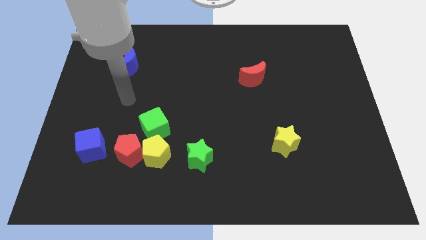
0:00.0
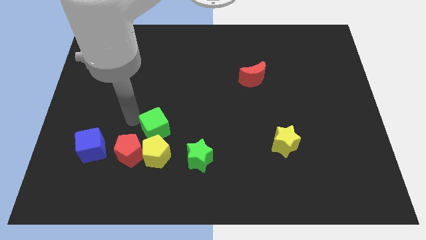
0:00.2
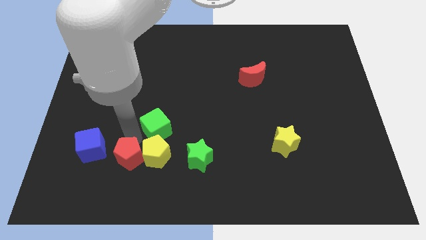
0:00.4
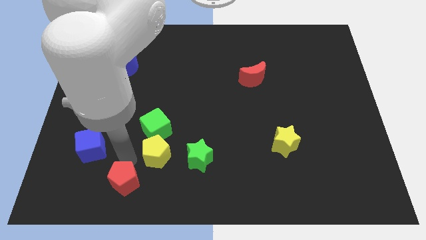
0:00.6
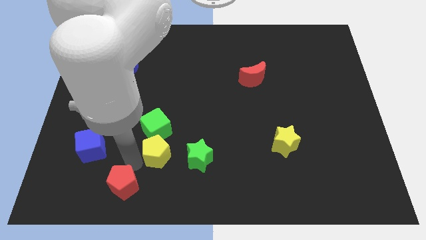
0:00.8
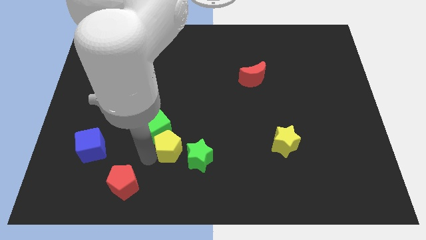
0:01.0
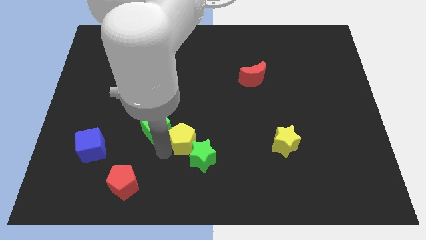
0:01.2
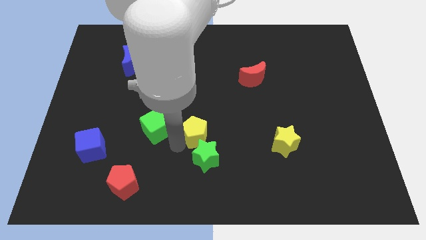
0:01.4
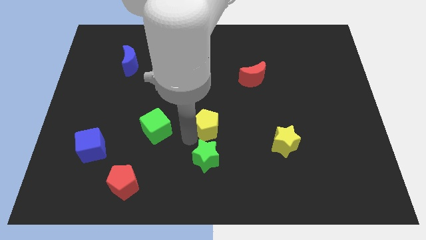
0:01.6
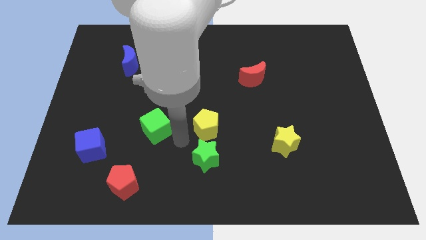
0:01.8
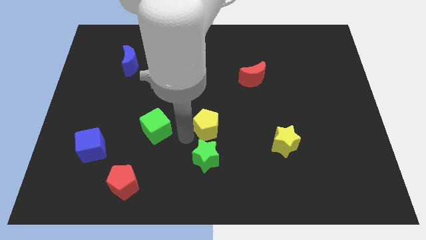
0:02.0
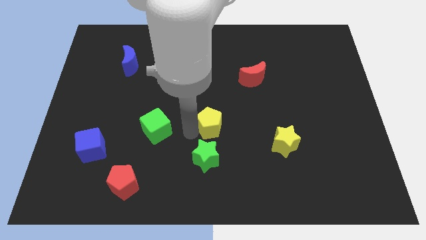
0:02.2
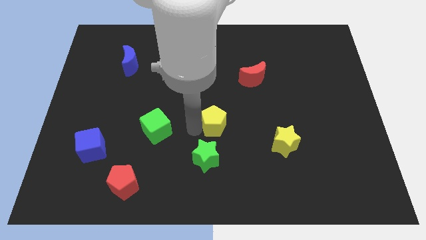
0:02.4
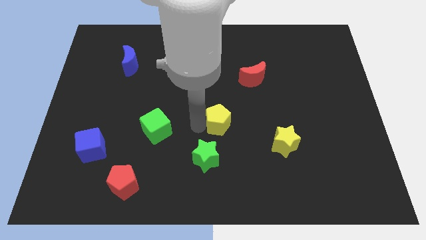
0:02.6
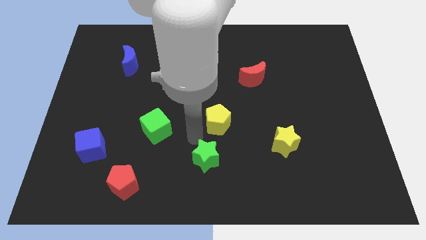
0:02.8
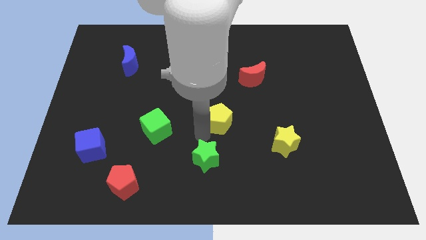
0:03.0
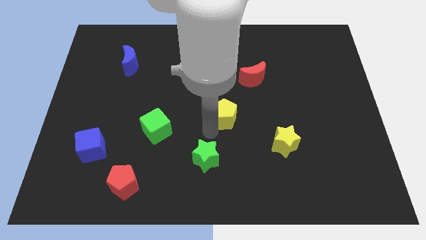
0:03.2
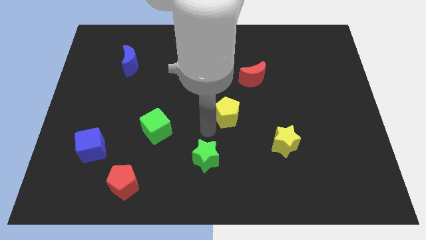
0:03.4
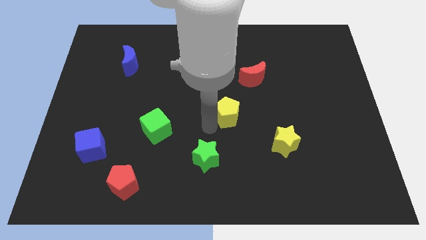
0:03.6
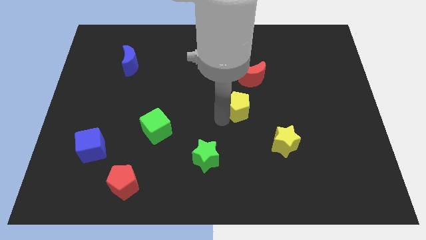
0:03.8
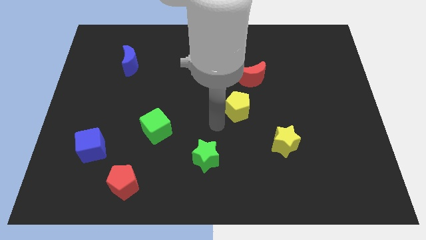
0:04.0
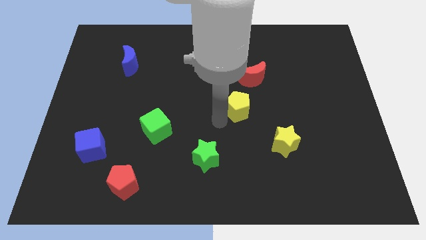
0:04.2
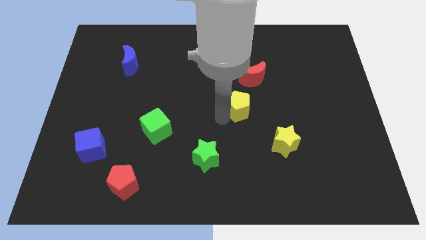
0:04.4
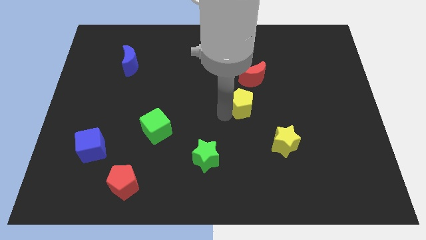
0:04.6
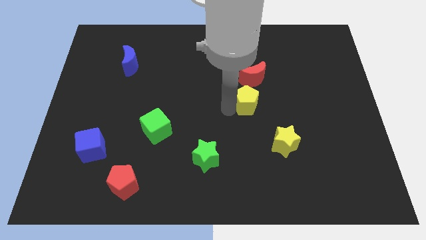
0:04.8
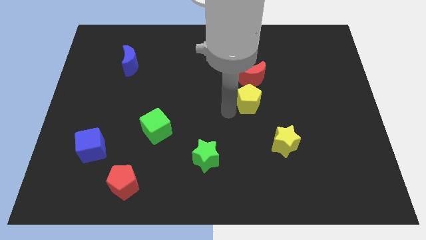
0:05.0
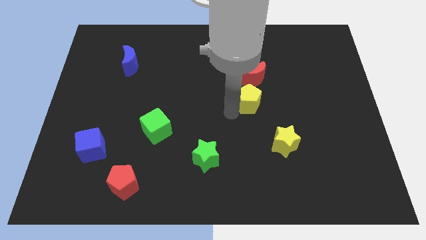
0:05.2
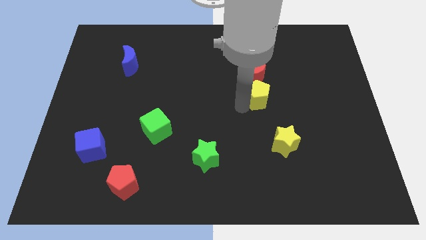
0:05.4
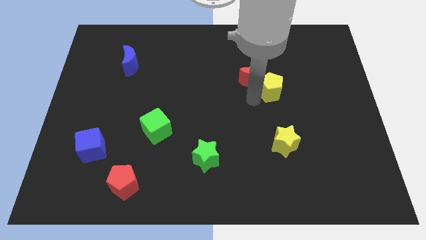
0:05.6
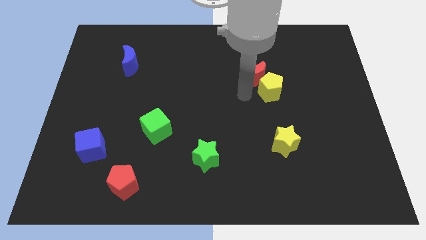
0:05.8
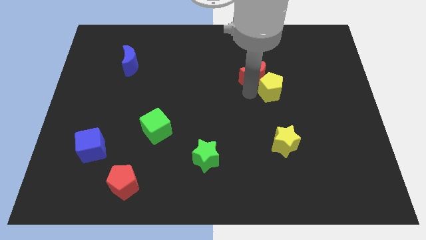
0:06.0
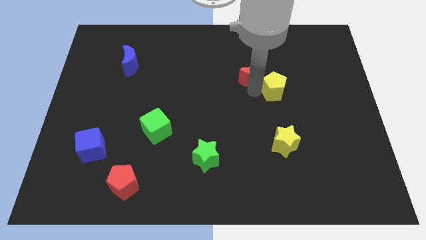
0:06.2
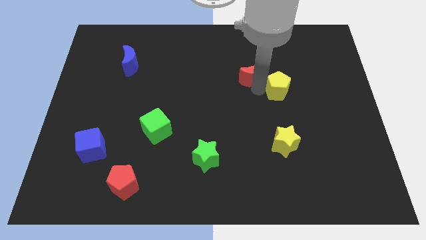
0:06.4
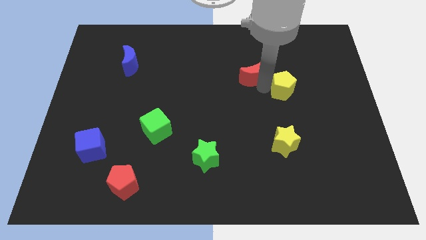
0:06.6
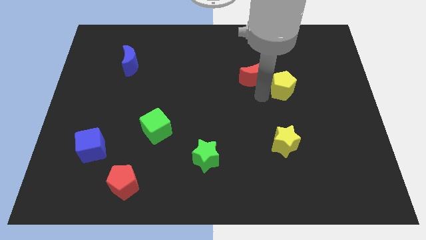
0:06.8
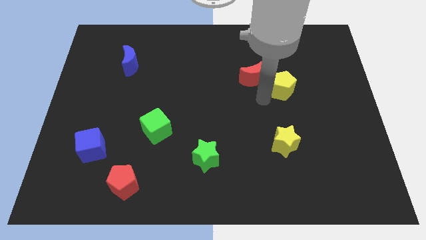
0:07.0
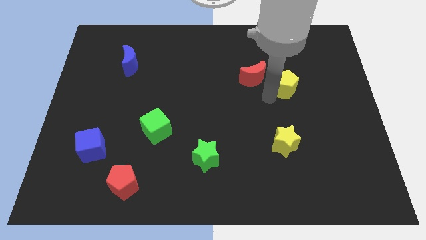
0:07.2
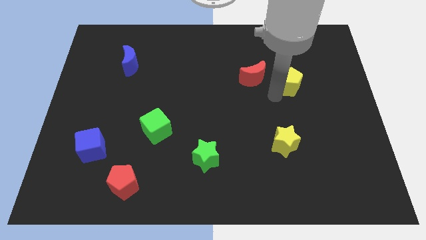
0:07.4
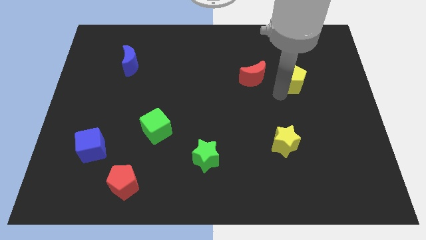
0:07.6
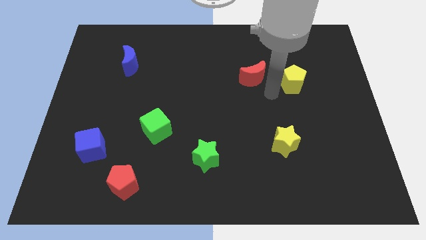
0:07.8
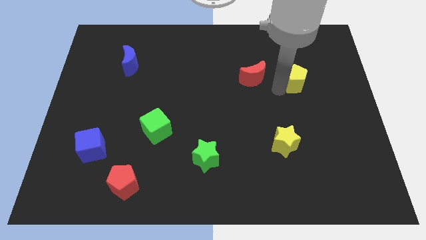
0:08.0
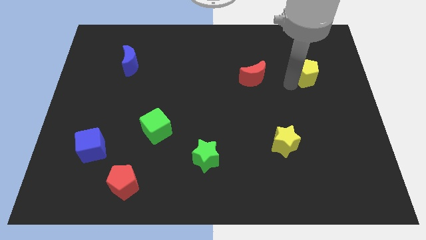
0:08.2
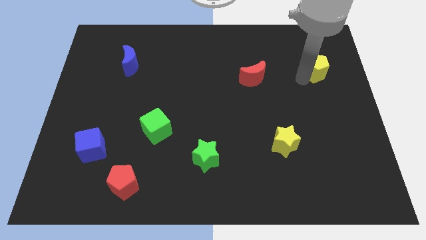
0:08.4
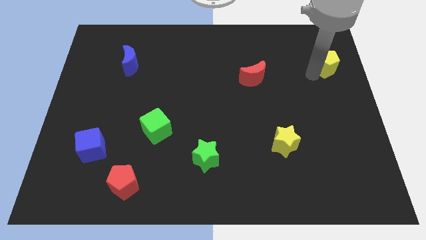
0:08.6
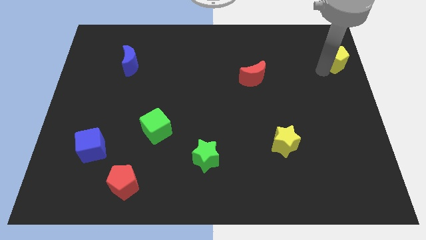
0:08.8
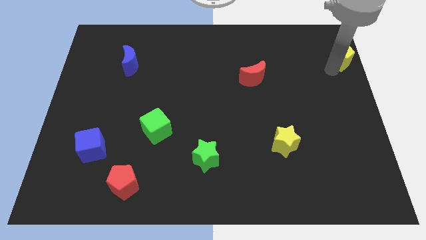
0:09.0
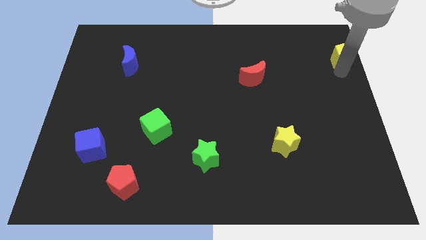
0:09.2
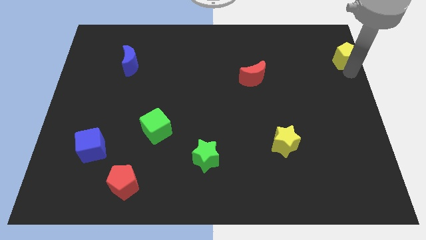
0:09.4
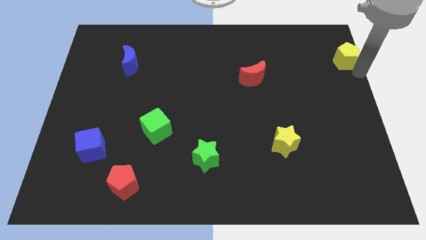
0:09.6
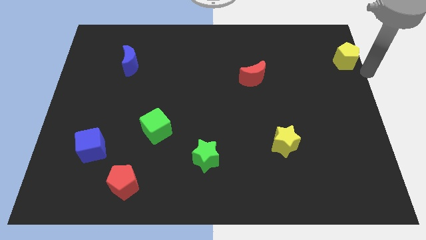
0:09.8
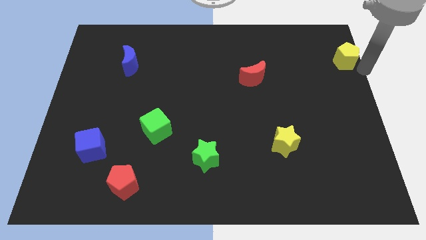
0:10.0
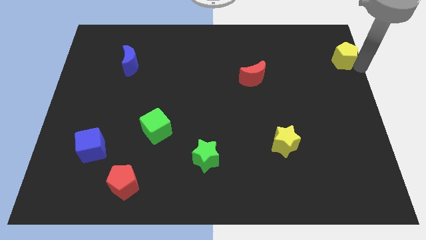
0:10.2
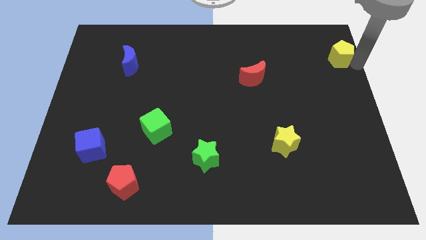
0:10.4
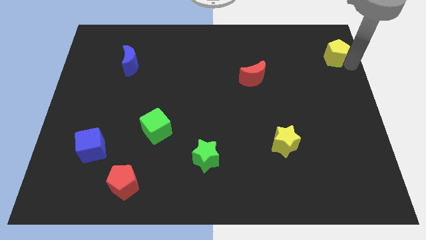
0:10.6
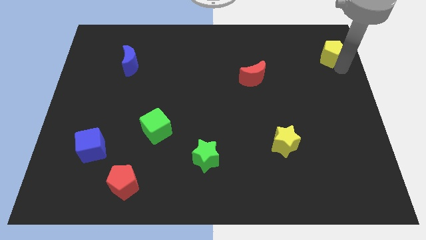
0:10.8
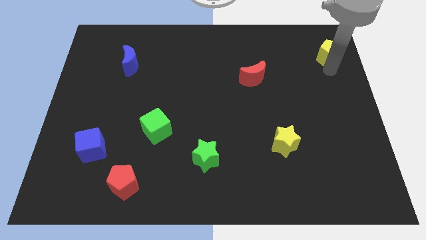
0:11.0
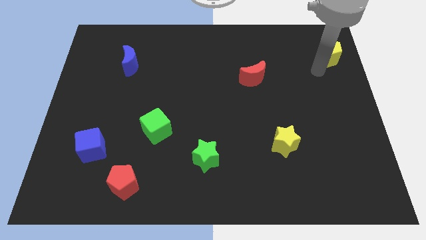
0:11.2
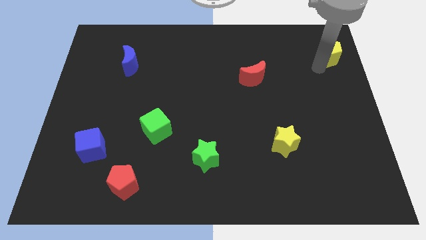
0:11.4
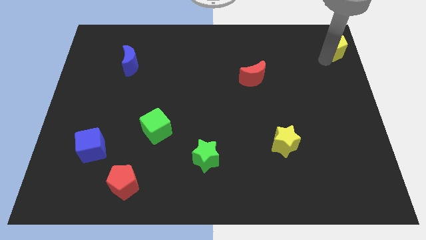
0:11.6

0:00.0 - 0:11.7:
put the yellow pentagon to the top right corner

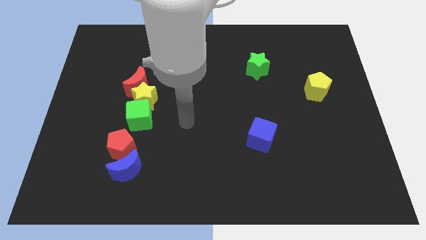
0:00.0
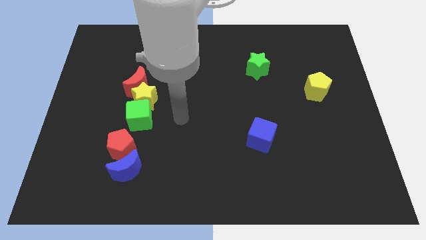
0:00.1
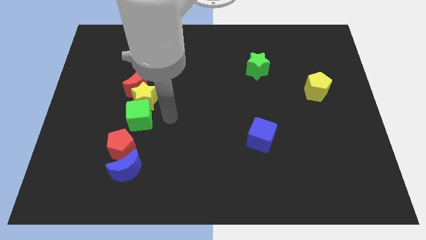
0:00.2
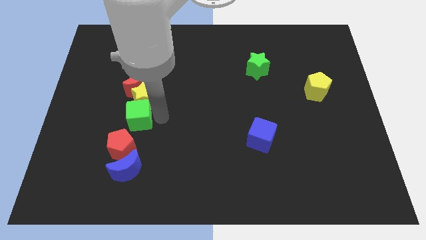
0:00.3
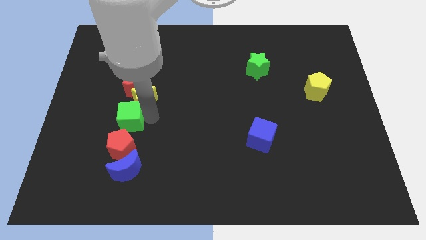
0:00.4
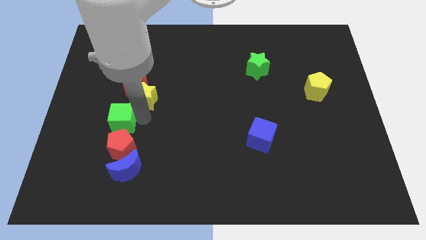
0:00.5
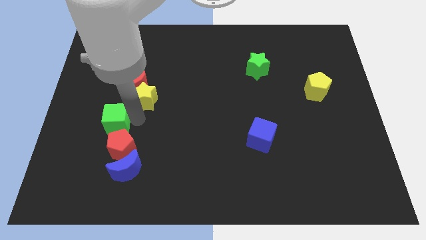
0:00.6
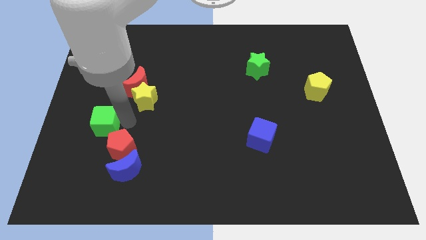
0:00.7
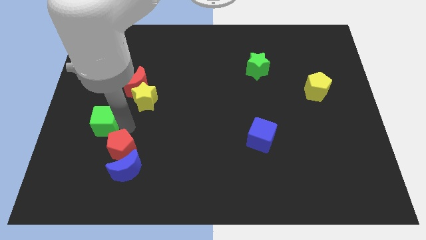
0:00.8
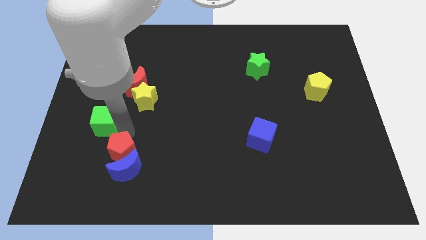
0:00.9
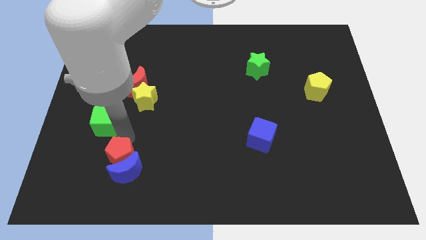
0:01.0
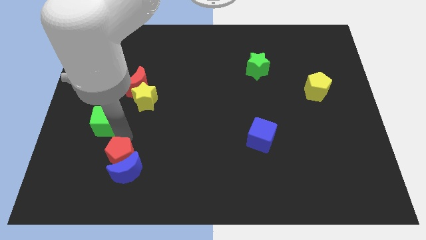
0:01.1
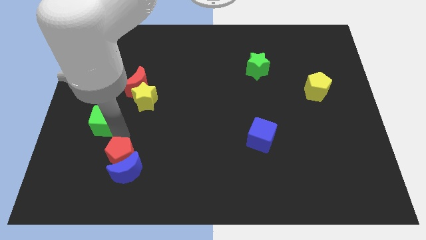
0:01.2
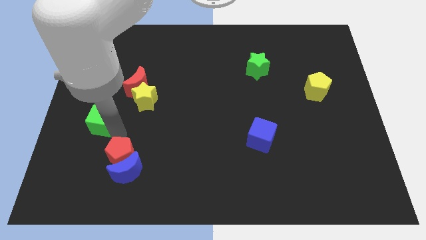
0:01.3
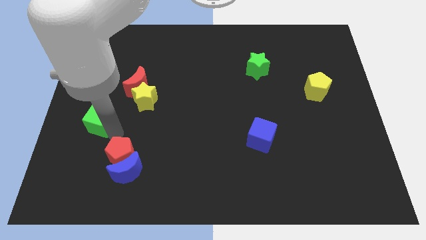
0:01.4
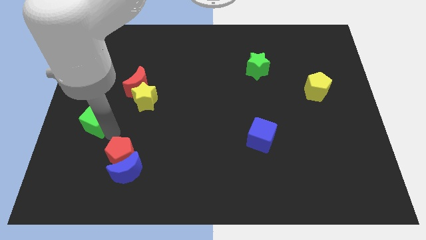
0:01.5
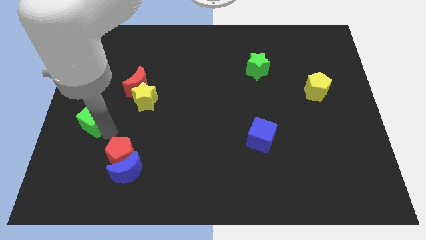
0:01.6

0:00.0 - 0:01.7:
push the green cube to the left side
